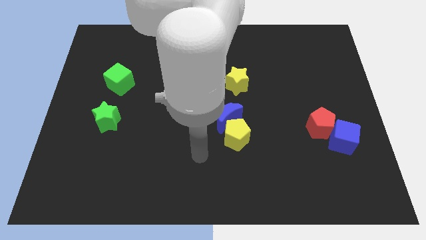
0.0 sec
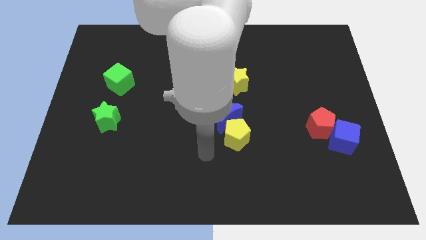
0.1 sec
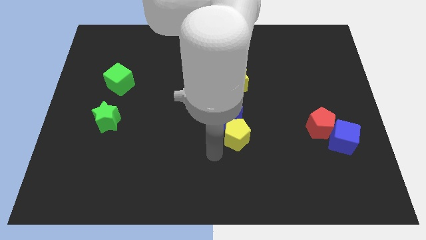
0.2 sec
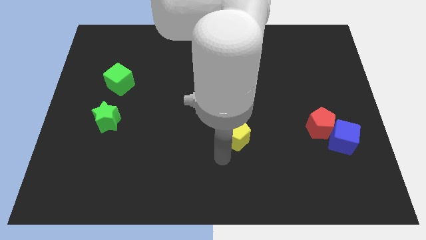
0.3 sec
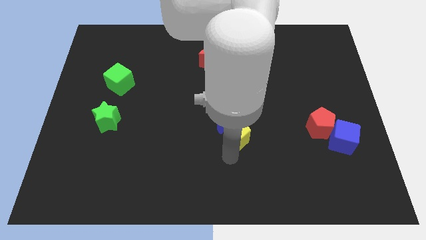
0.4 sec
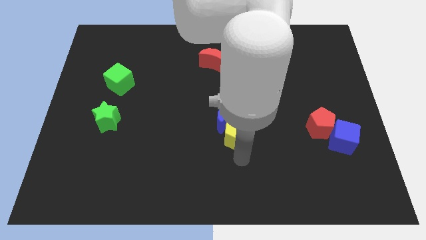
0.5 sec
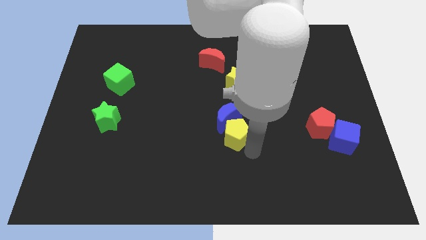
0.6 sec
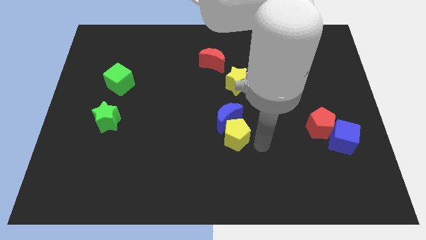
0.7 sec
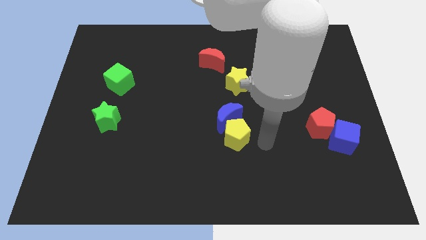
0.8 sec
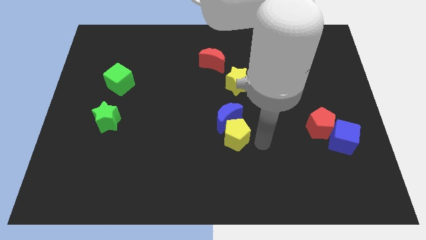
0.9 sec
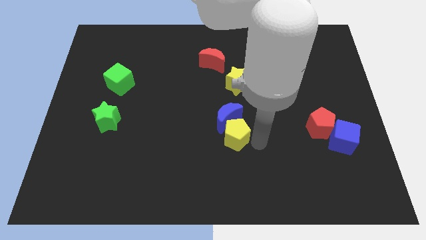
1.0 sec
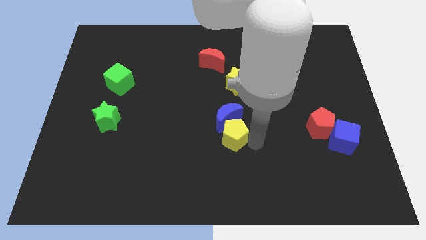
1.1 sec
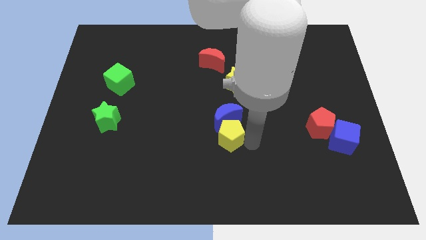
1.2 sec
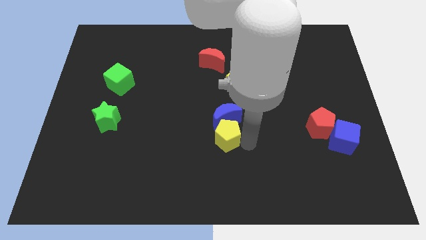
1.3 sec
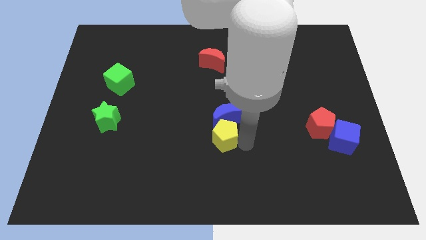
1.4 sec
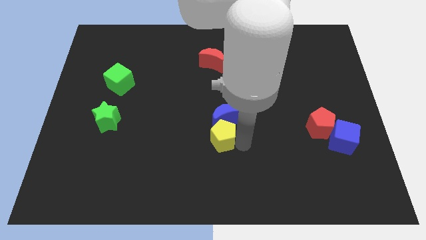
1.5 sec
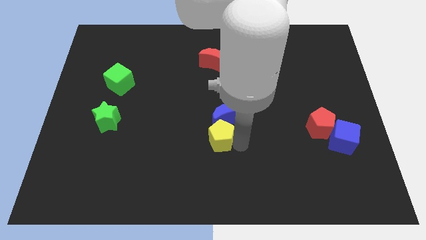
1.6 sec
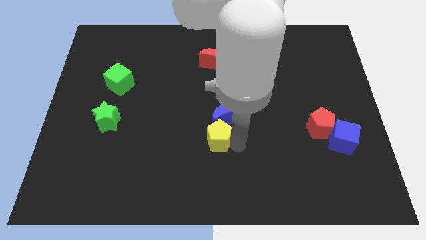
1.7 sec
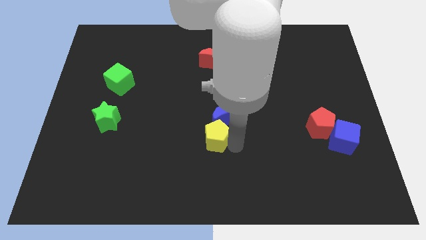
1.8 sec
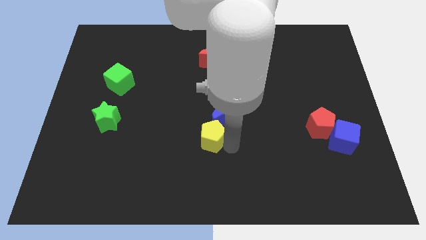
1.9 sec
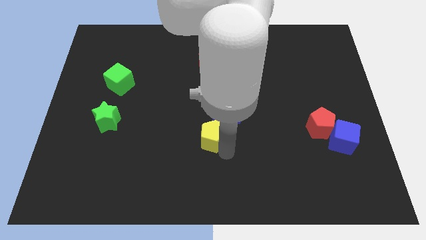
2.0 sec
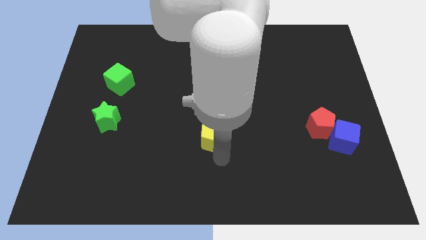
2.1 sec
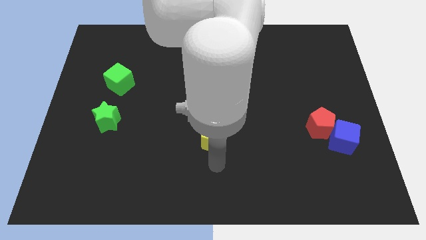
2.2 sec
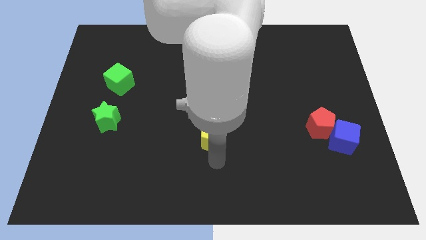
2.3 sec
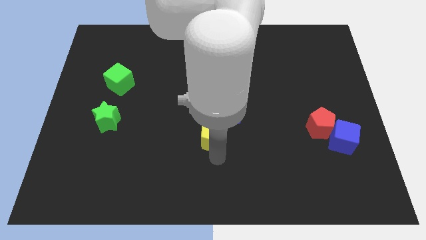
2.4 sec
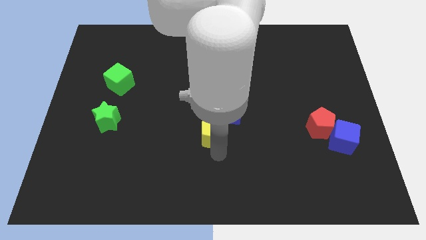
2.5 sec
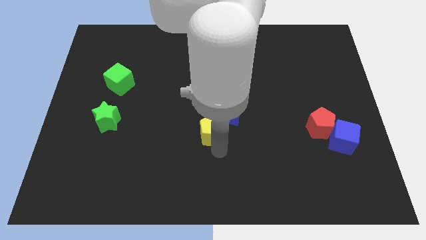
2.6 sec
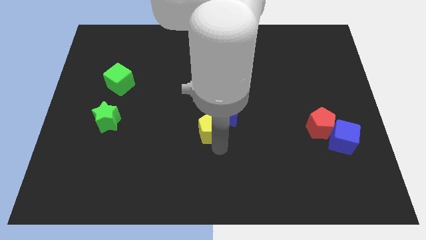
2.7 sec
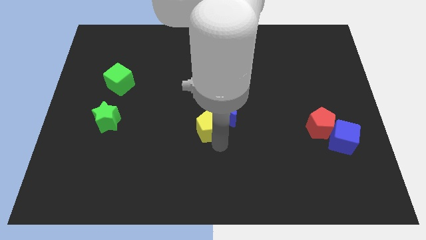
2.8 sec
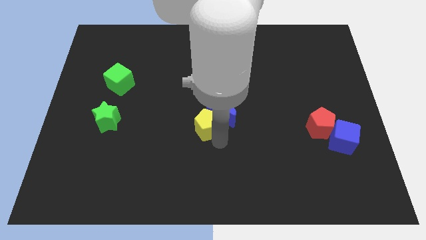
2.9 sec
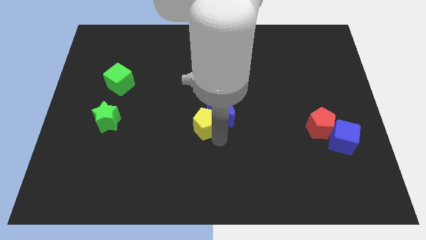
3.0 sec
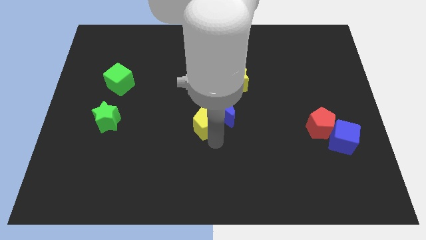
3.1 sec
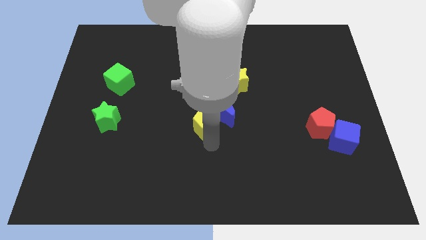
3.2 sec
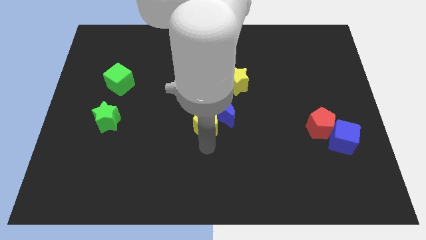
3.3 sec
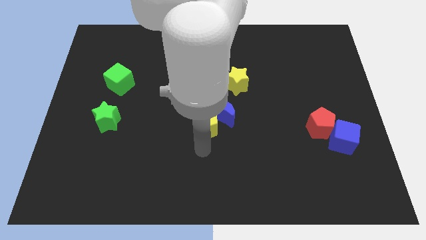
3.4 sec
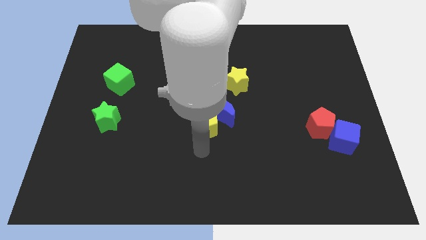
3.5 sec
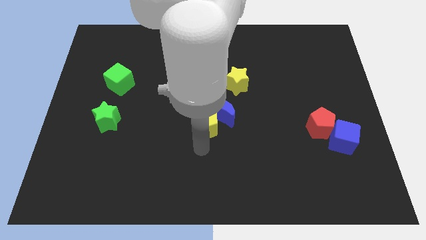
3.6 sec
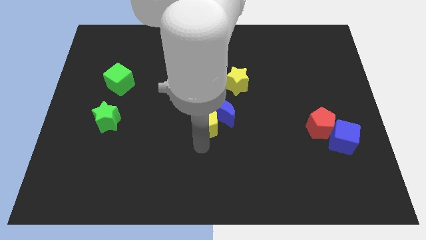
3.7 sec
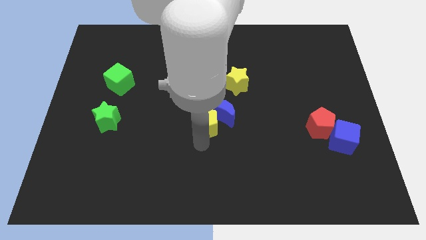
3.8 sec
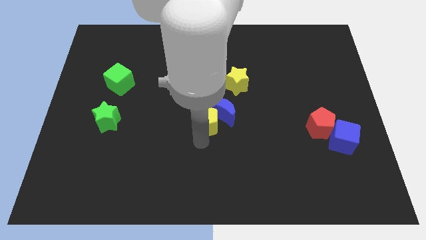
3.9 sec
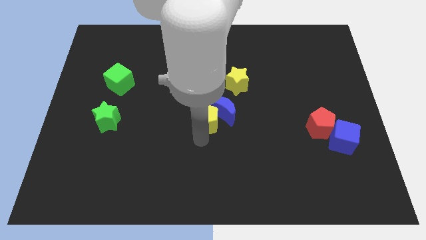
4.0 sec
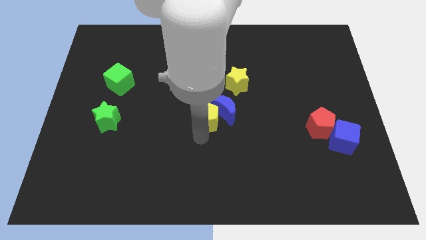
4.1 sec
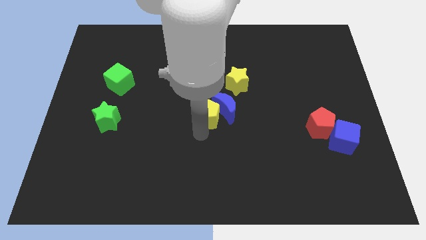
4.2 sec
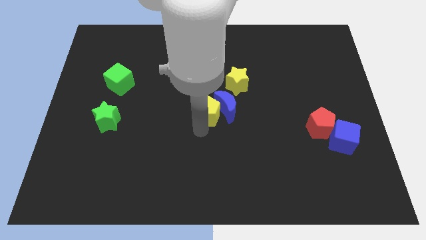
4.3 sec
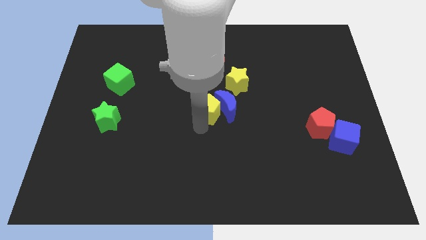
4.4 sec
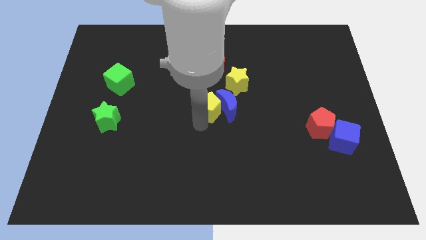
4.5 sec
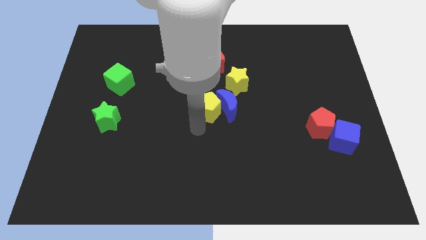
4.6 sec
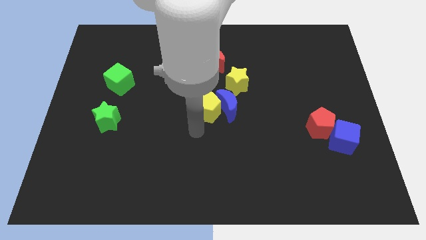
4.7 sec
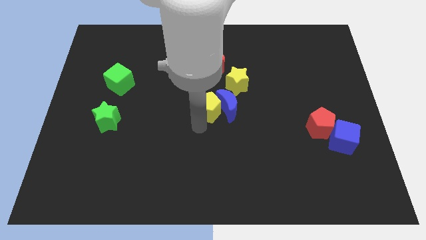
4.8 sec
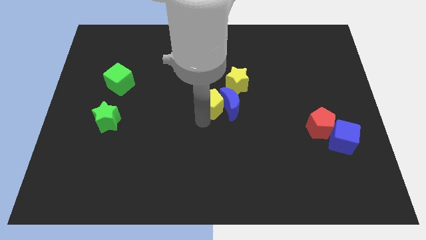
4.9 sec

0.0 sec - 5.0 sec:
move the yellow pentagon up a bit

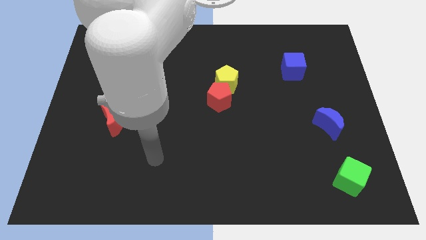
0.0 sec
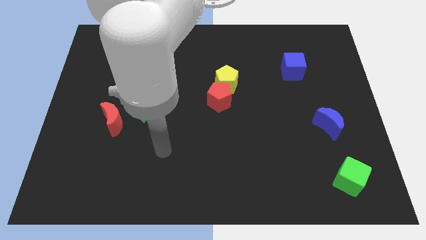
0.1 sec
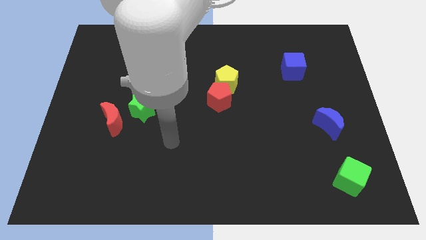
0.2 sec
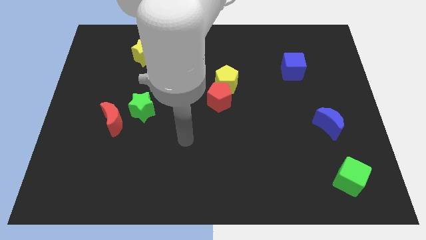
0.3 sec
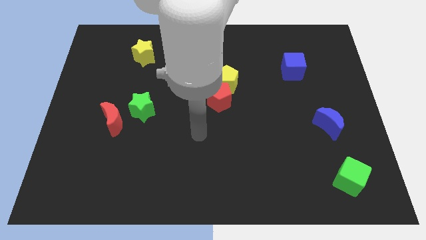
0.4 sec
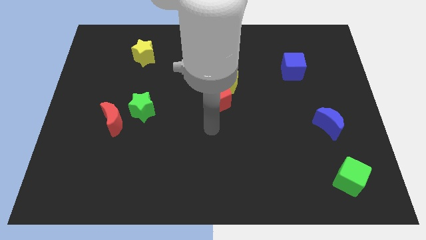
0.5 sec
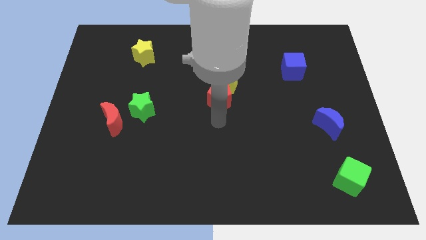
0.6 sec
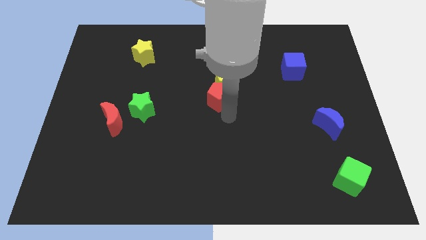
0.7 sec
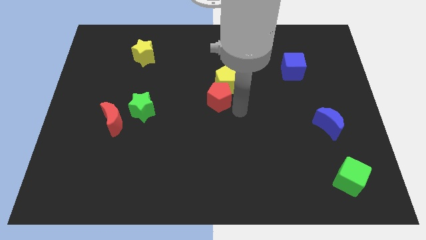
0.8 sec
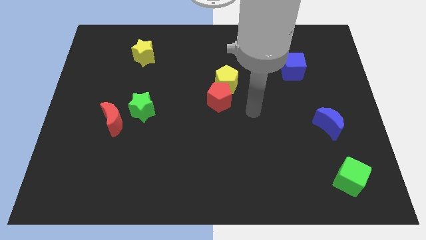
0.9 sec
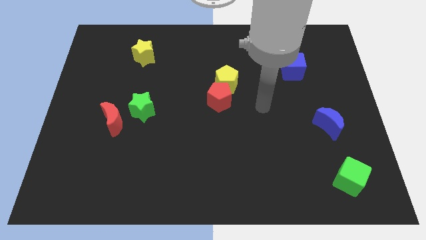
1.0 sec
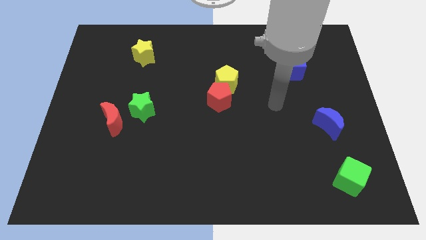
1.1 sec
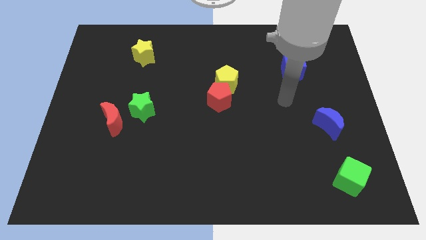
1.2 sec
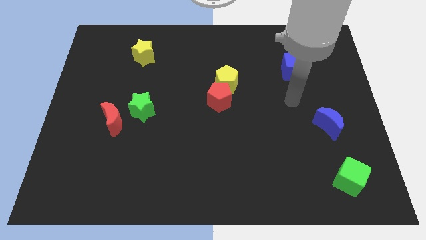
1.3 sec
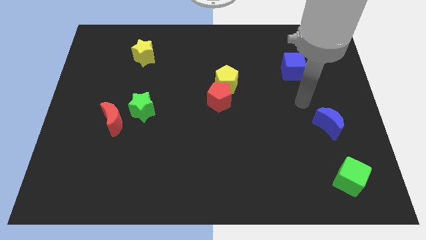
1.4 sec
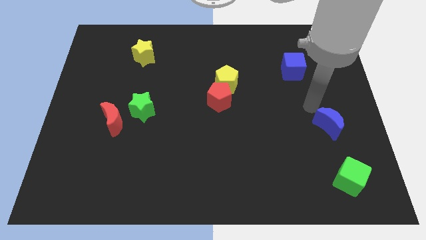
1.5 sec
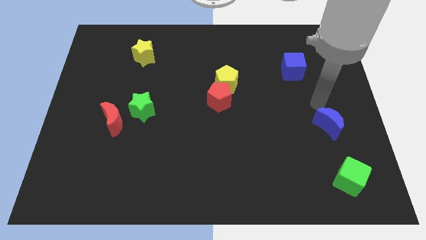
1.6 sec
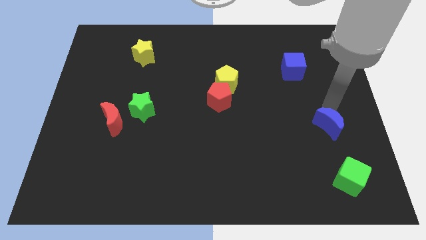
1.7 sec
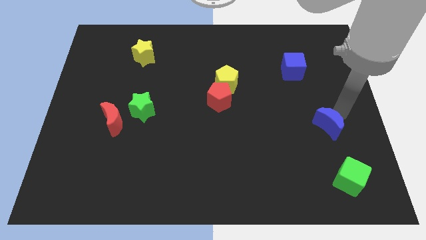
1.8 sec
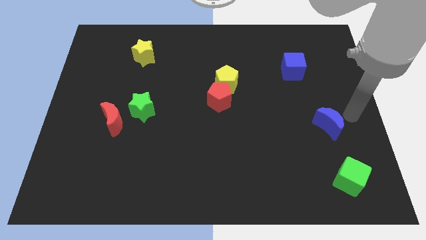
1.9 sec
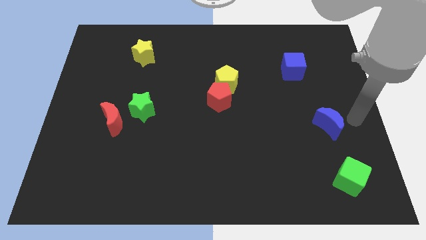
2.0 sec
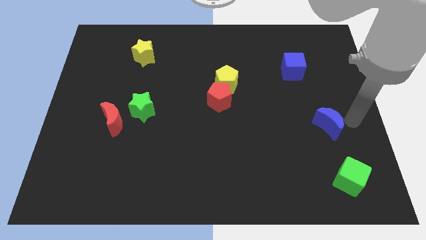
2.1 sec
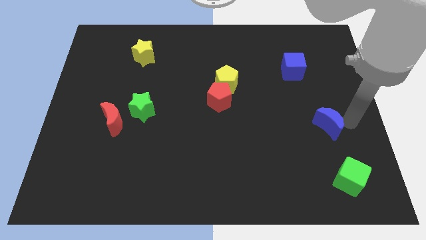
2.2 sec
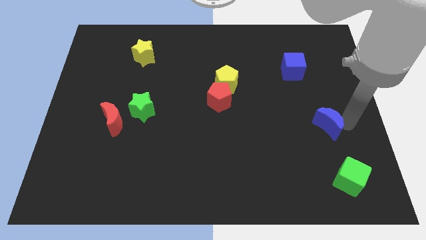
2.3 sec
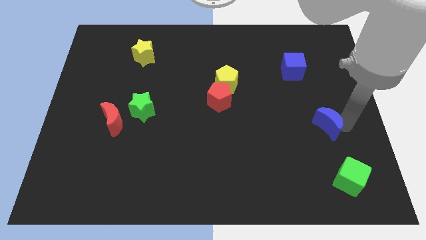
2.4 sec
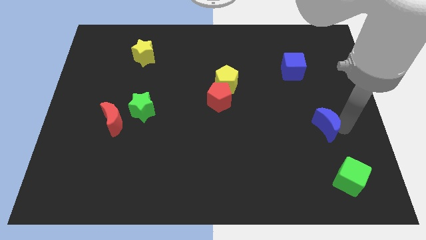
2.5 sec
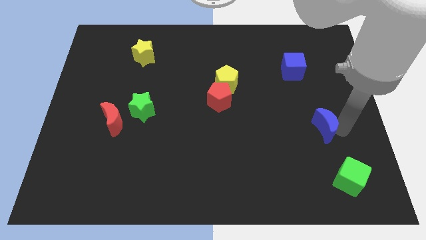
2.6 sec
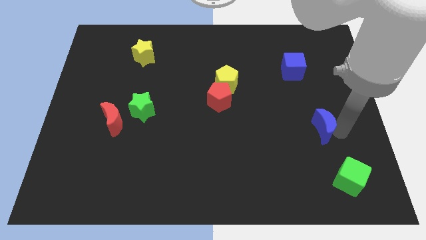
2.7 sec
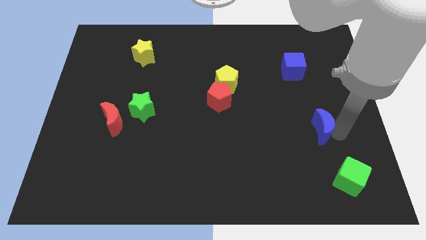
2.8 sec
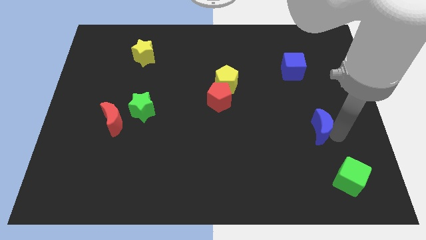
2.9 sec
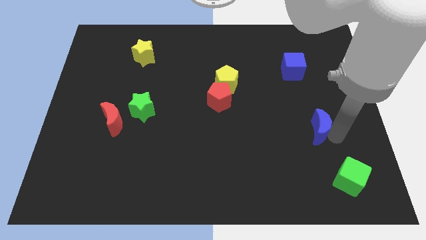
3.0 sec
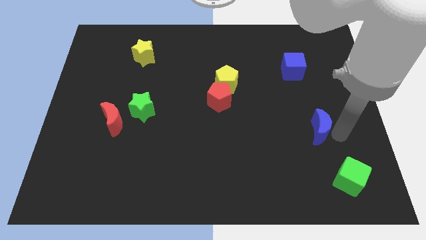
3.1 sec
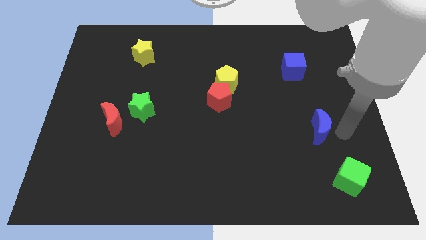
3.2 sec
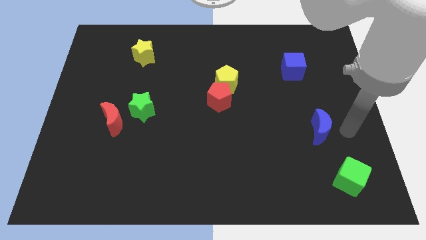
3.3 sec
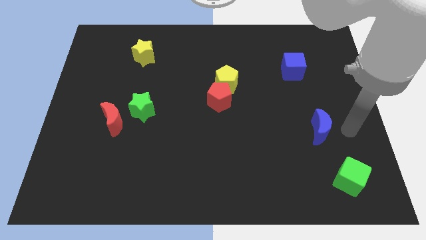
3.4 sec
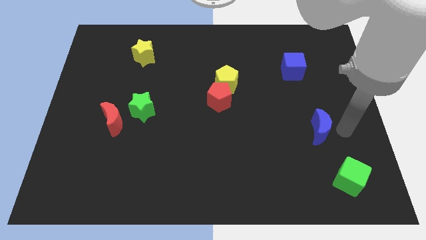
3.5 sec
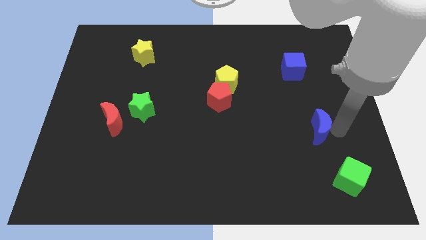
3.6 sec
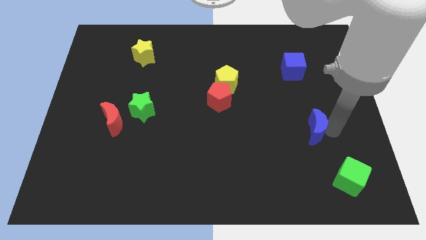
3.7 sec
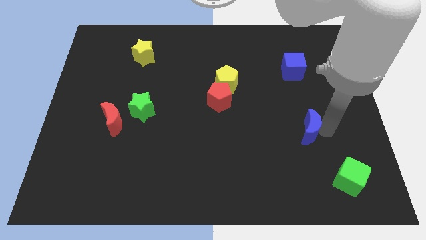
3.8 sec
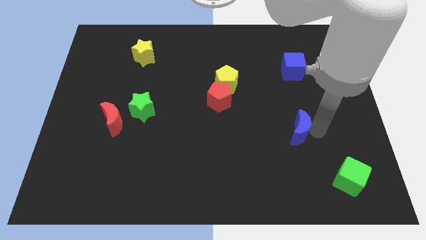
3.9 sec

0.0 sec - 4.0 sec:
push the blue moon a little bit to the left
